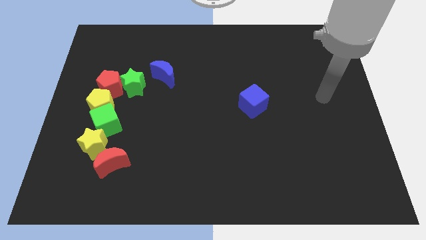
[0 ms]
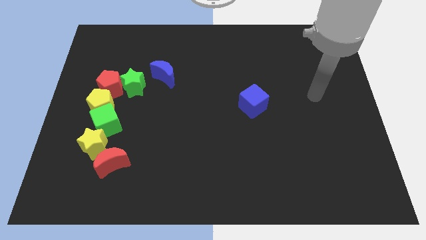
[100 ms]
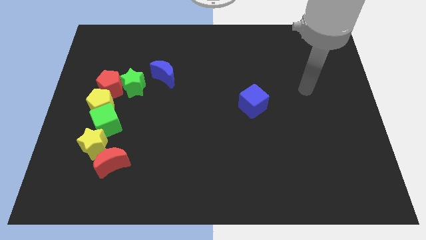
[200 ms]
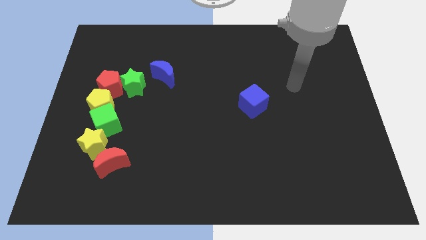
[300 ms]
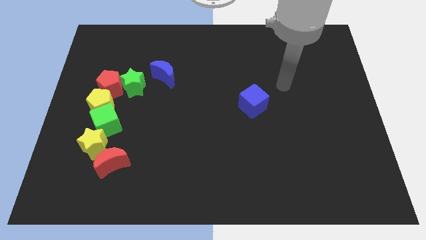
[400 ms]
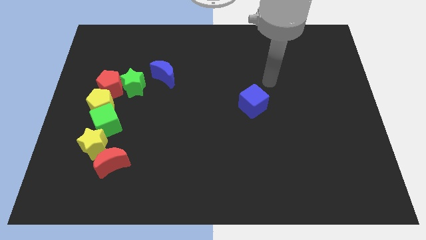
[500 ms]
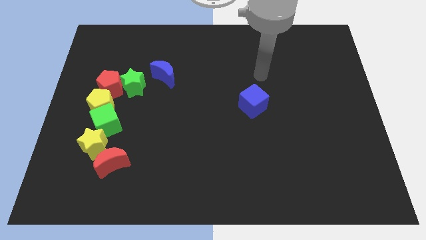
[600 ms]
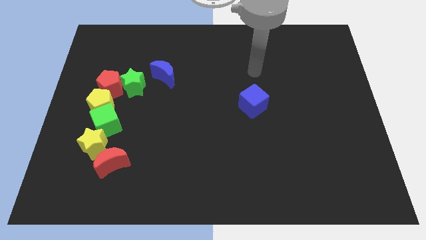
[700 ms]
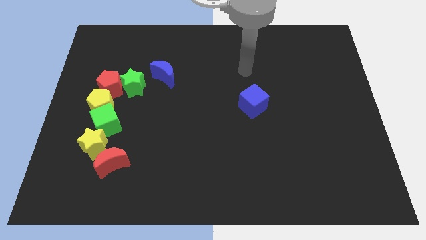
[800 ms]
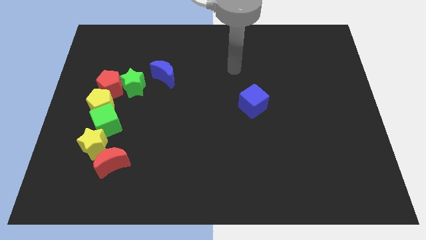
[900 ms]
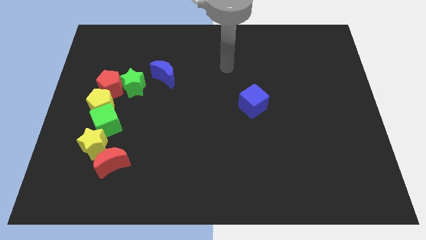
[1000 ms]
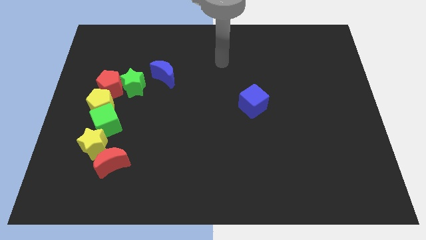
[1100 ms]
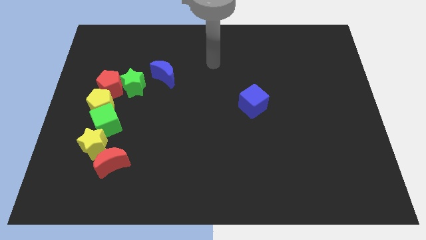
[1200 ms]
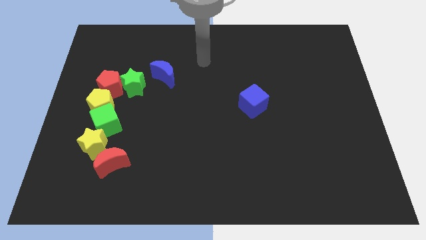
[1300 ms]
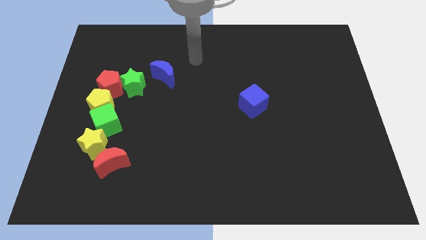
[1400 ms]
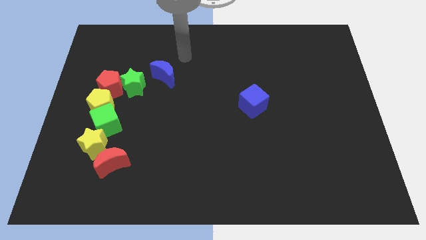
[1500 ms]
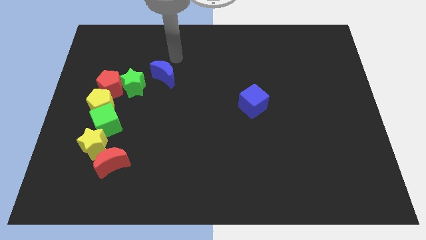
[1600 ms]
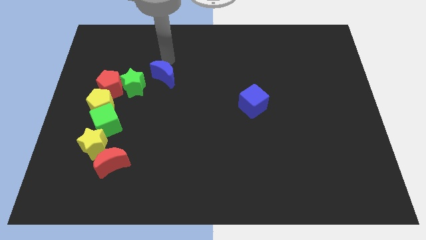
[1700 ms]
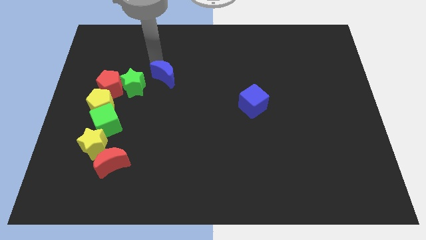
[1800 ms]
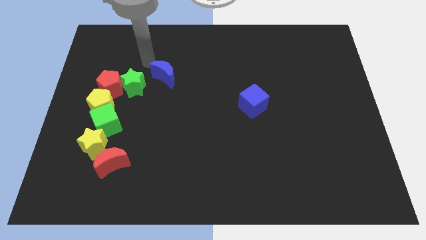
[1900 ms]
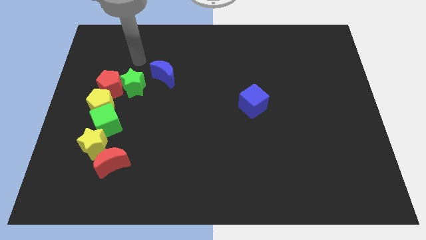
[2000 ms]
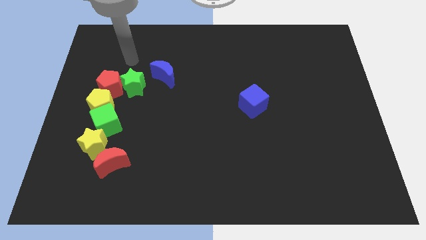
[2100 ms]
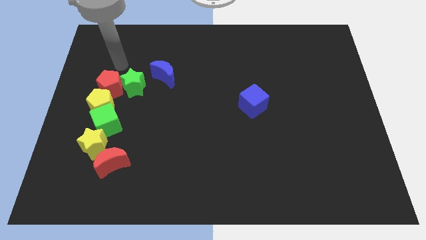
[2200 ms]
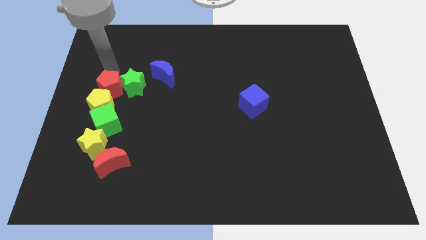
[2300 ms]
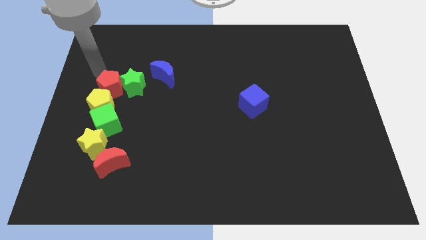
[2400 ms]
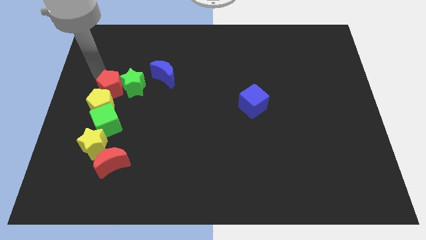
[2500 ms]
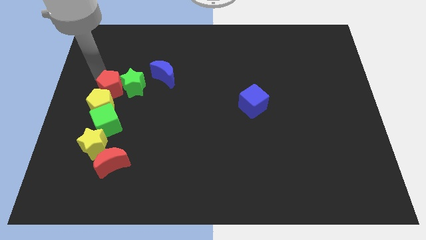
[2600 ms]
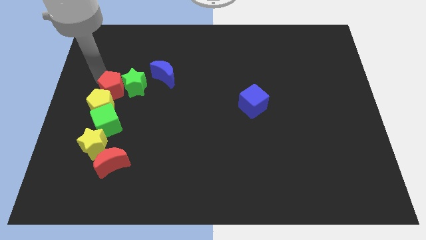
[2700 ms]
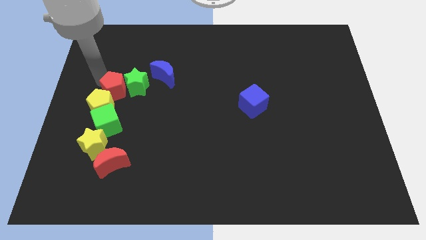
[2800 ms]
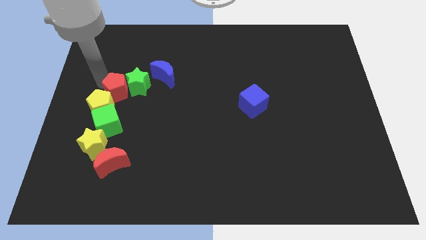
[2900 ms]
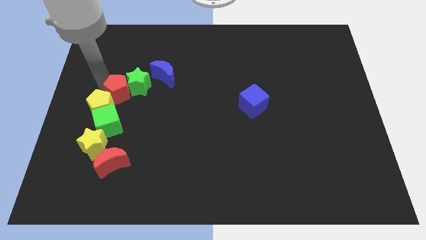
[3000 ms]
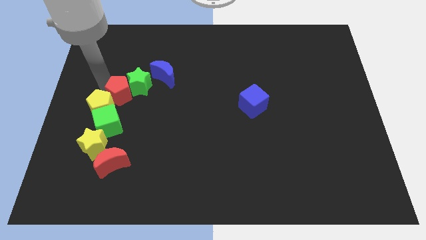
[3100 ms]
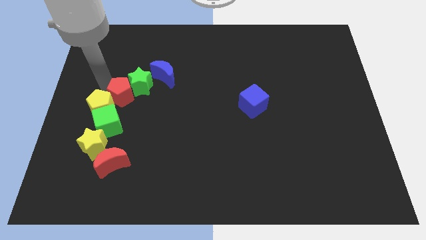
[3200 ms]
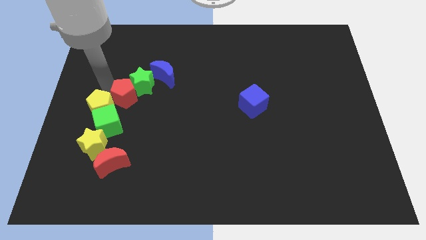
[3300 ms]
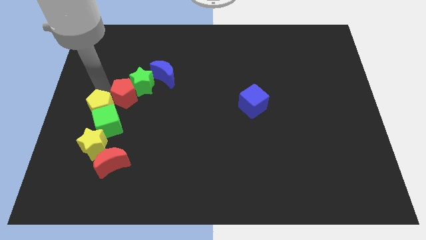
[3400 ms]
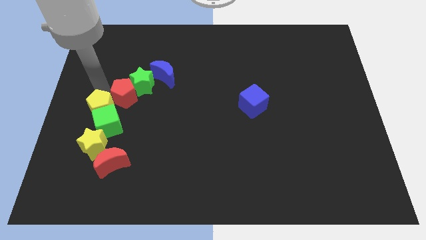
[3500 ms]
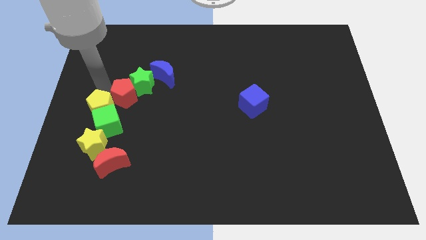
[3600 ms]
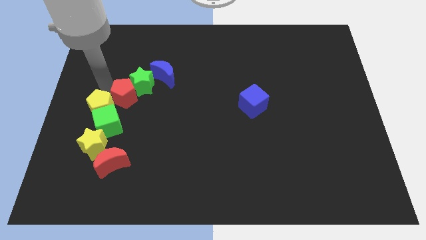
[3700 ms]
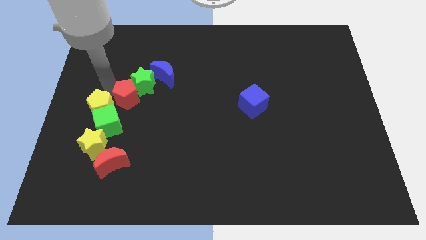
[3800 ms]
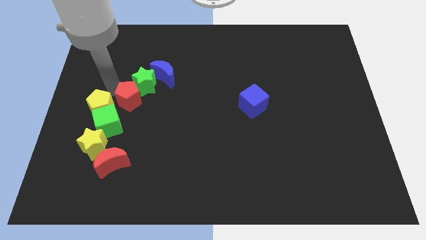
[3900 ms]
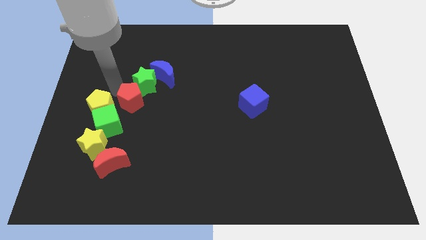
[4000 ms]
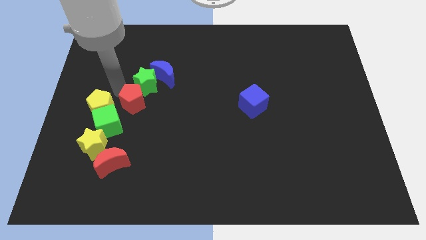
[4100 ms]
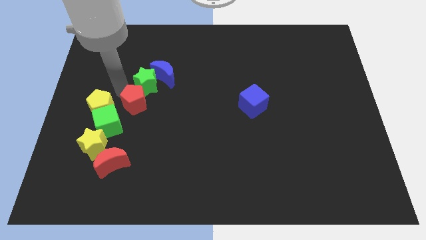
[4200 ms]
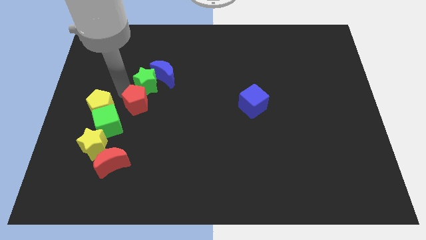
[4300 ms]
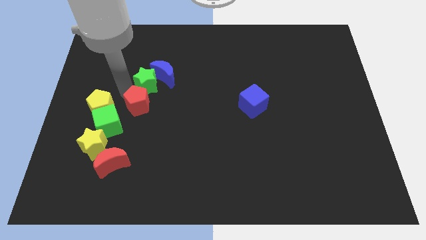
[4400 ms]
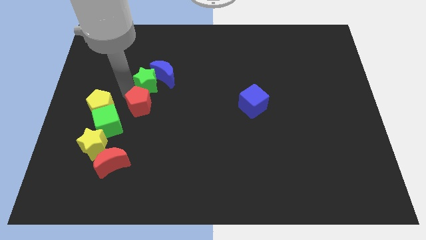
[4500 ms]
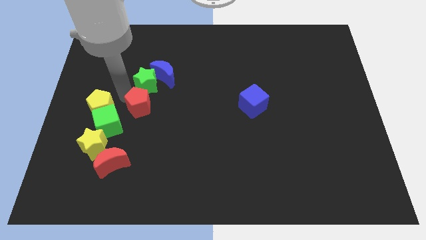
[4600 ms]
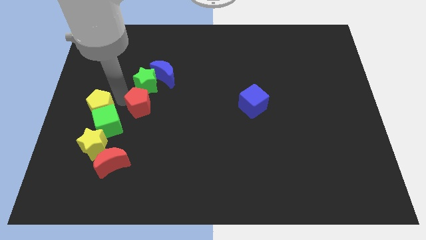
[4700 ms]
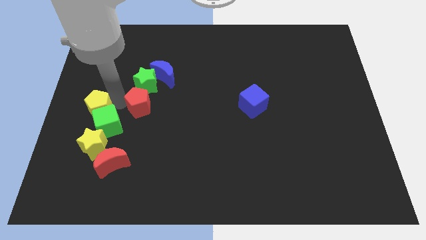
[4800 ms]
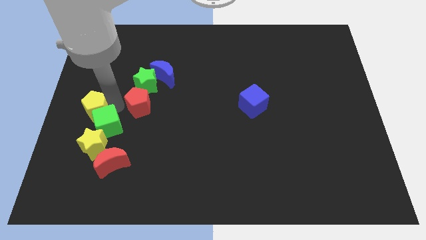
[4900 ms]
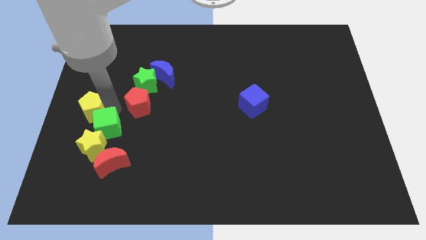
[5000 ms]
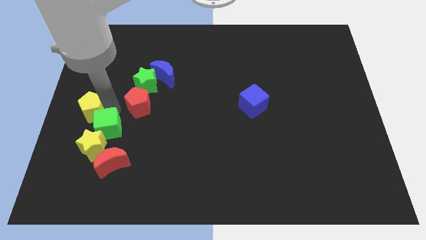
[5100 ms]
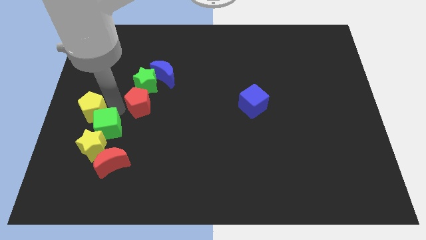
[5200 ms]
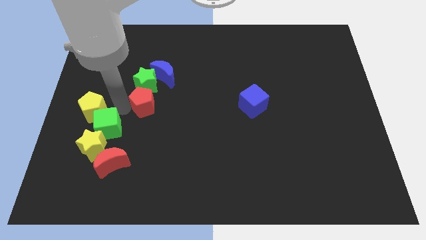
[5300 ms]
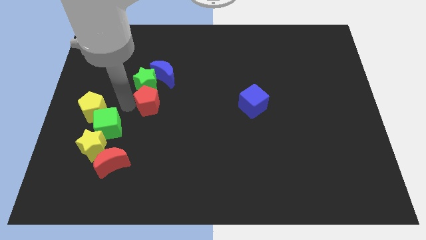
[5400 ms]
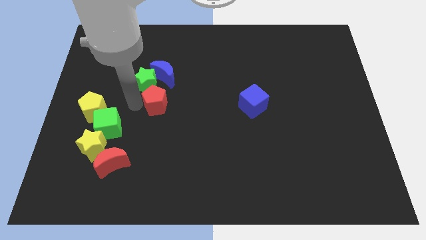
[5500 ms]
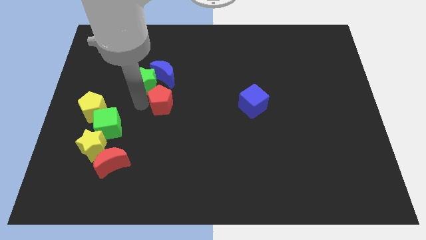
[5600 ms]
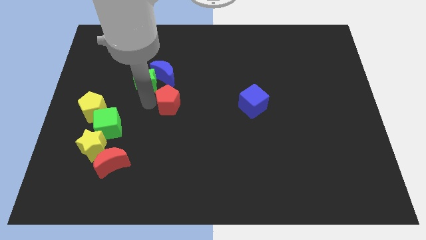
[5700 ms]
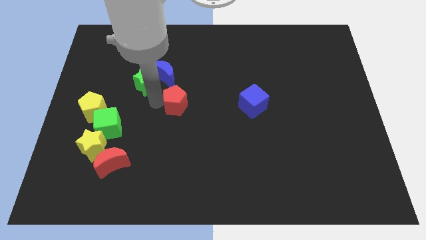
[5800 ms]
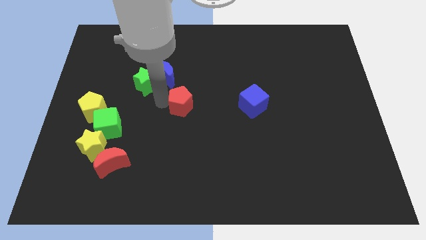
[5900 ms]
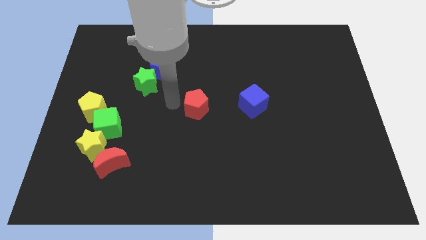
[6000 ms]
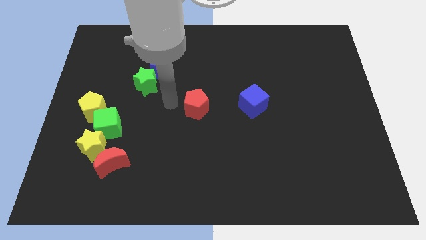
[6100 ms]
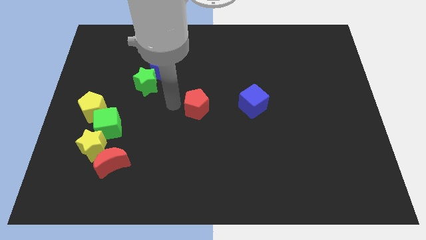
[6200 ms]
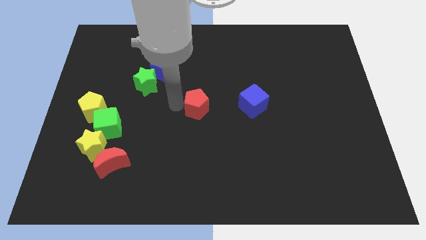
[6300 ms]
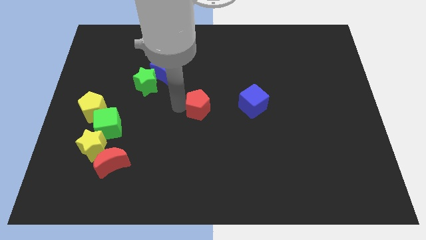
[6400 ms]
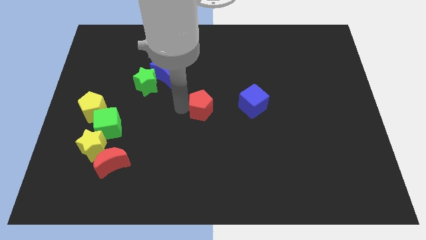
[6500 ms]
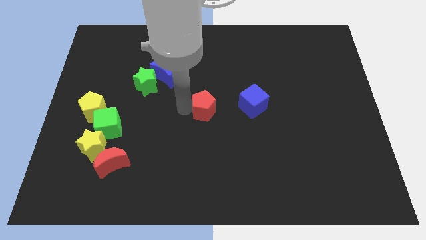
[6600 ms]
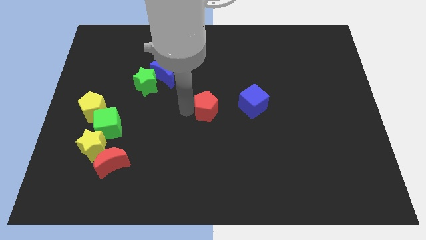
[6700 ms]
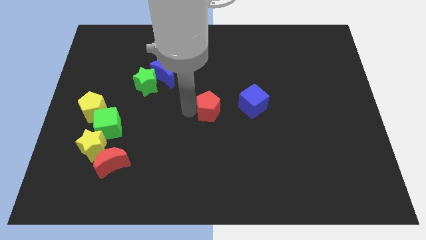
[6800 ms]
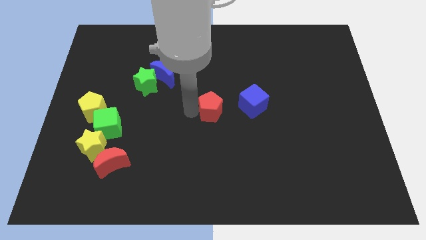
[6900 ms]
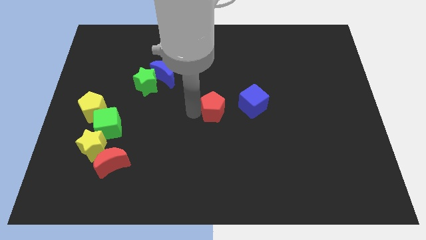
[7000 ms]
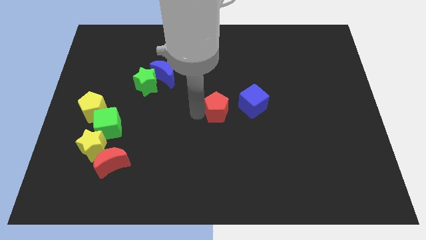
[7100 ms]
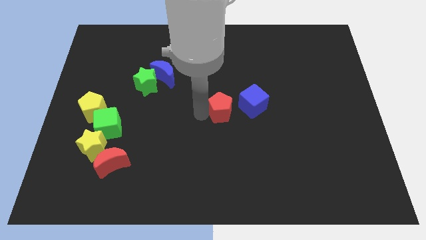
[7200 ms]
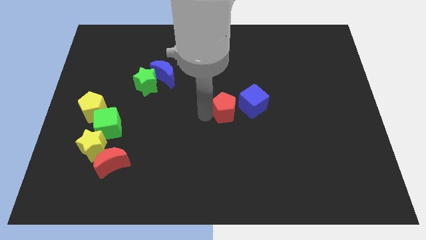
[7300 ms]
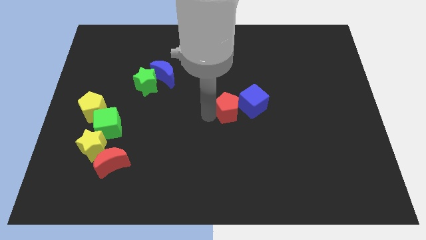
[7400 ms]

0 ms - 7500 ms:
move the red pentagon to the blue cube
